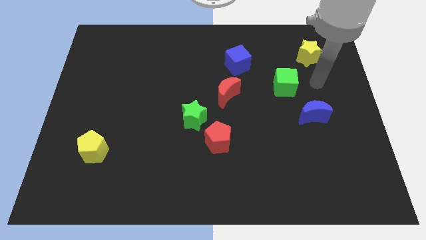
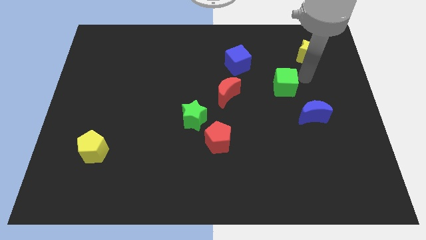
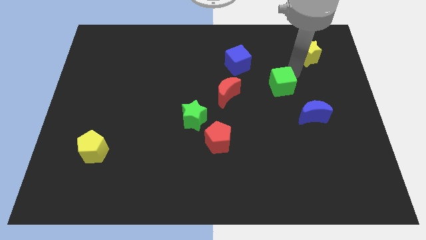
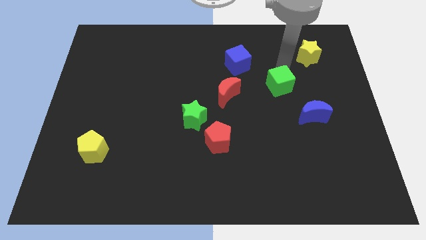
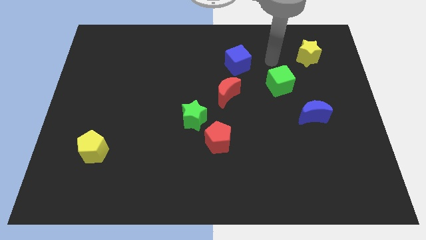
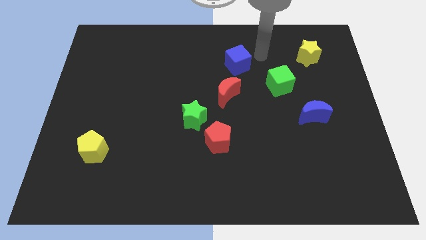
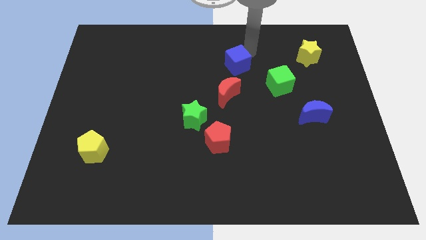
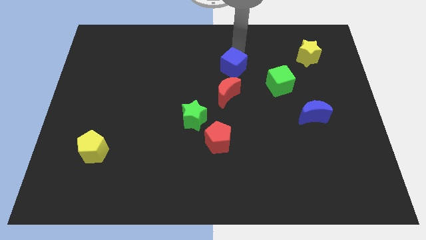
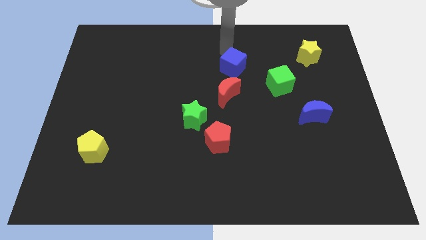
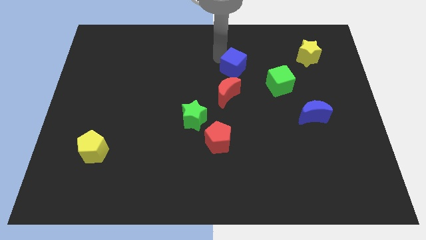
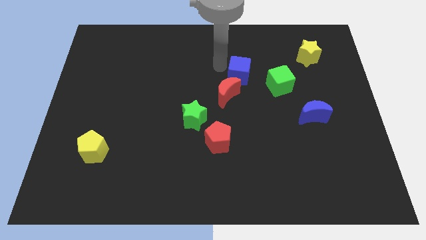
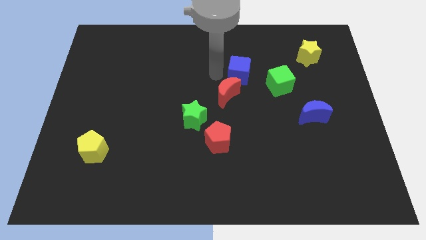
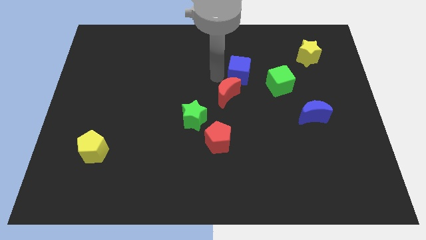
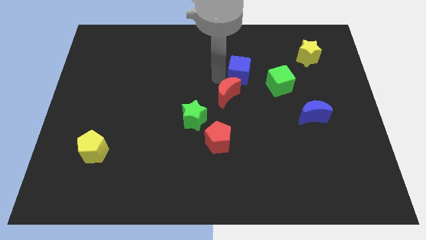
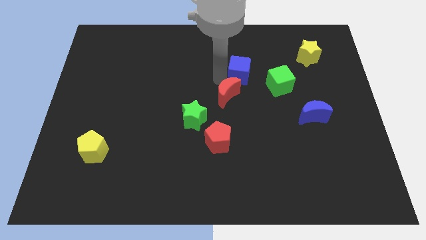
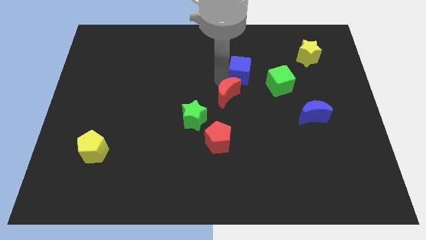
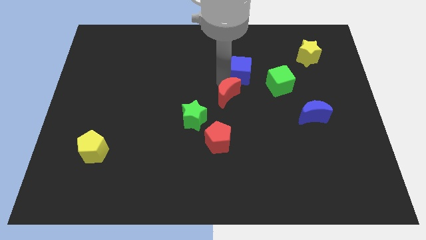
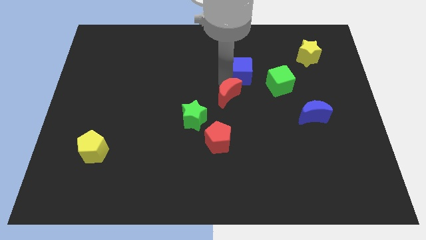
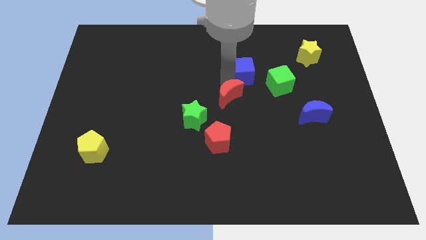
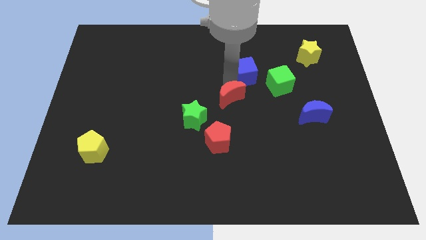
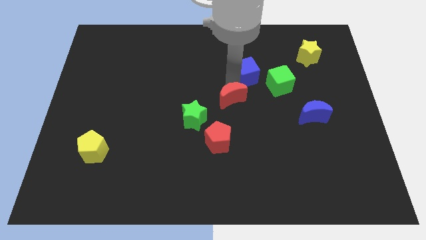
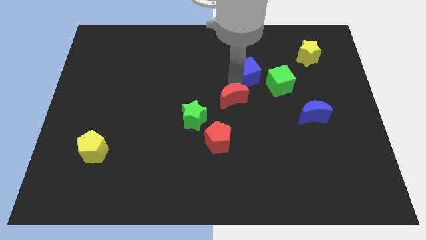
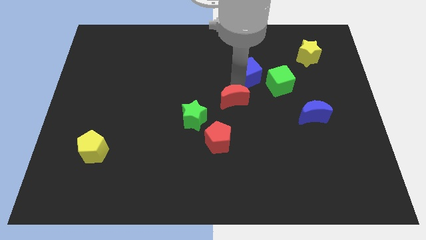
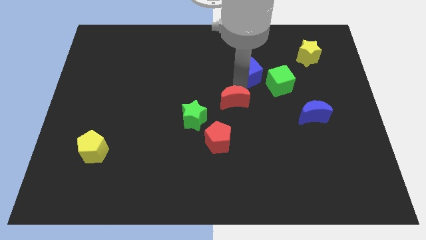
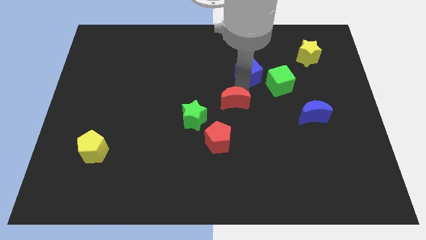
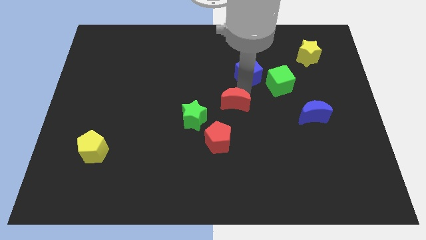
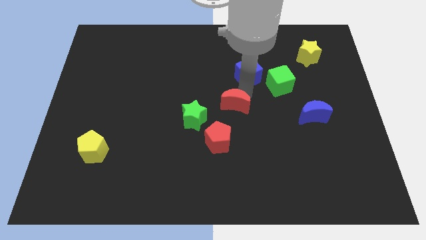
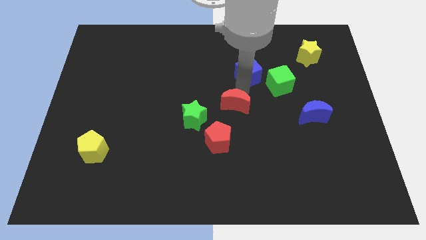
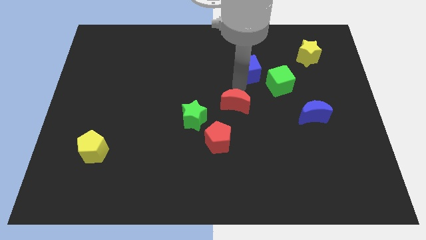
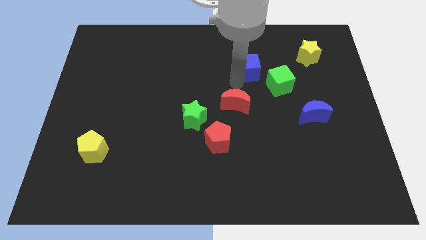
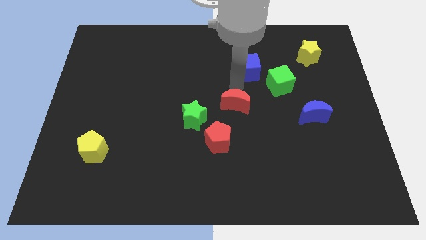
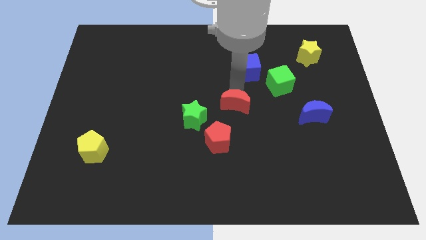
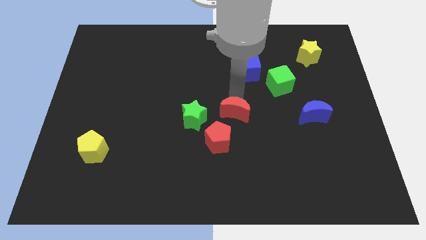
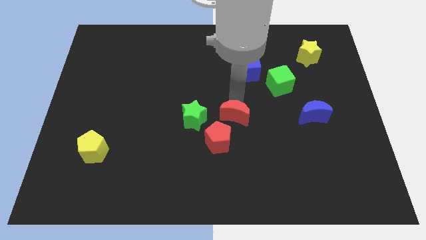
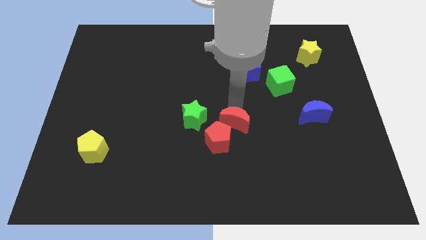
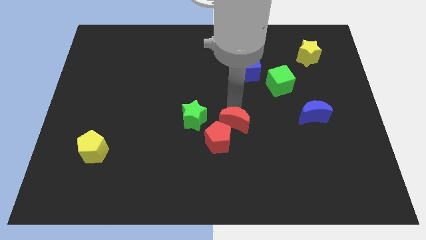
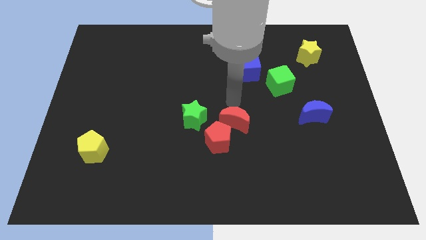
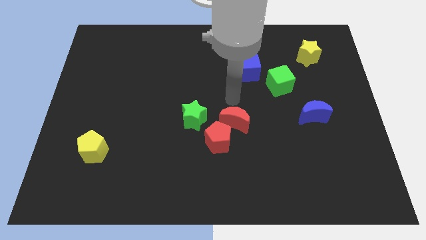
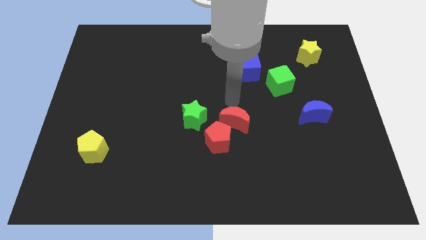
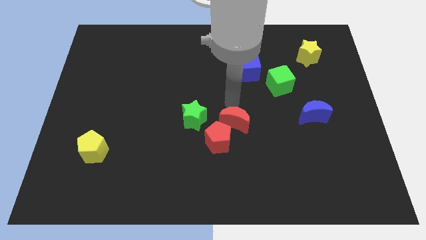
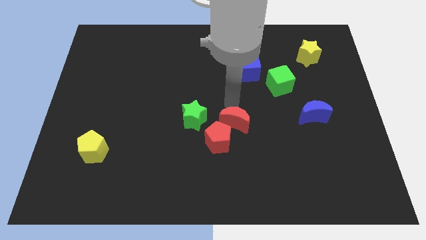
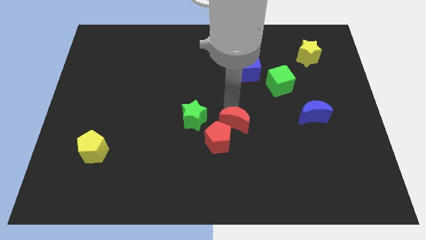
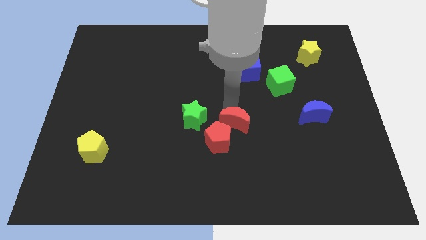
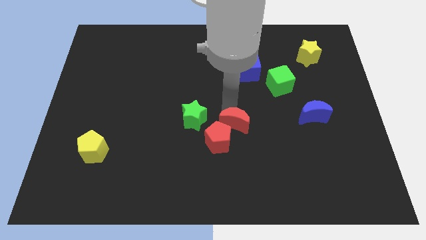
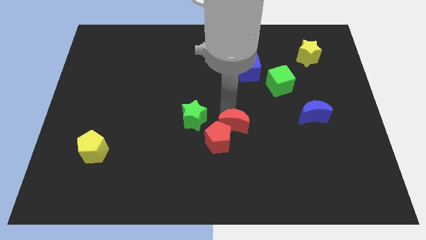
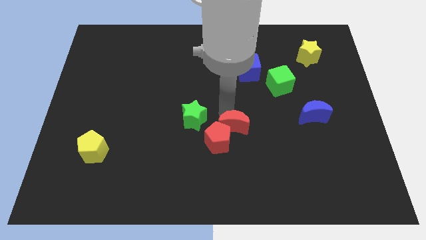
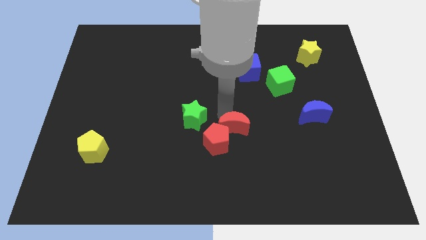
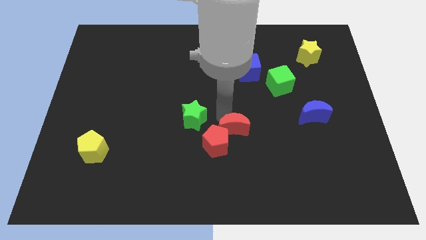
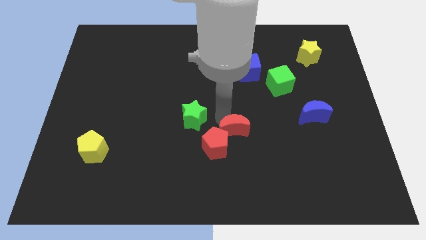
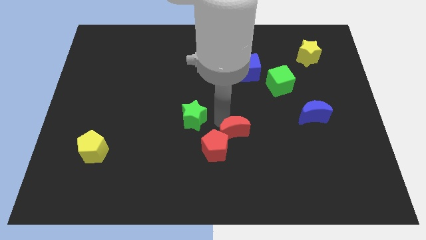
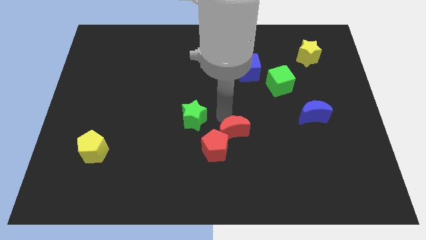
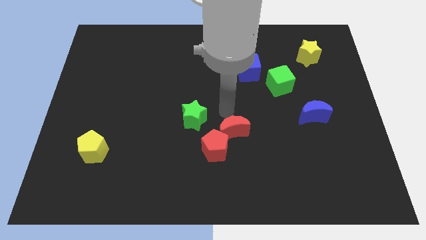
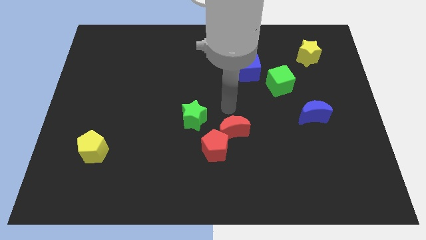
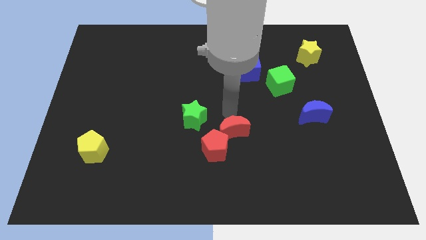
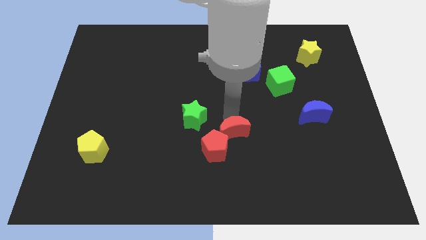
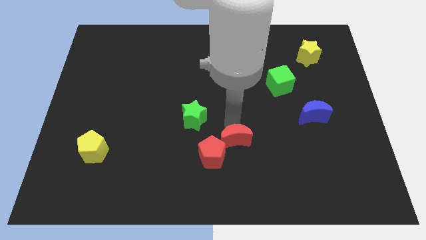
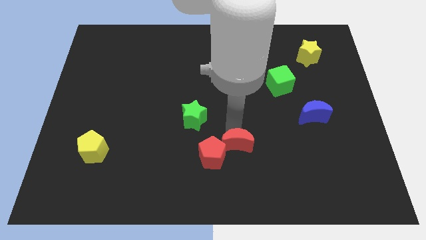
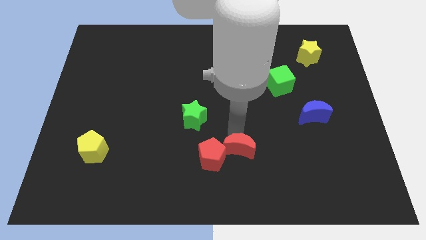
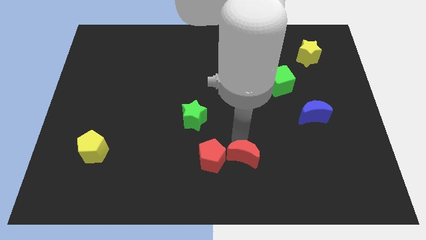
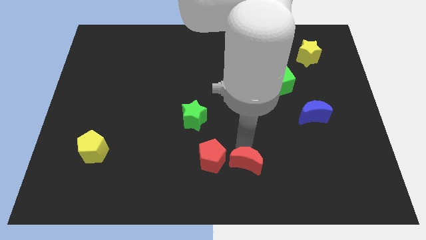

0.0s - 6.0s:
put the red moon to the bottom side
